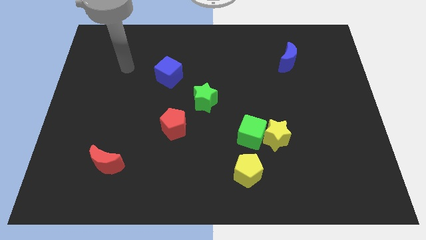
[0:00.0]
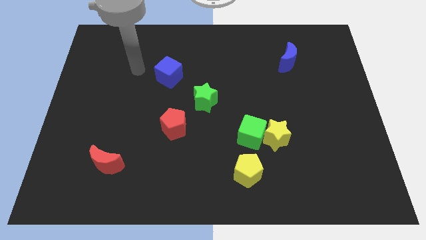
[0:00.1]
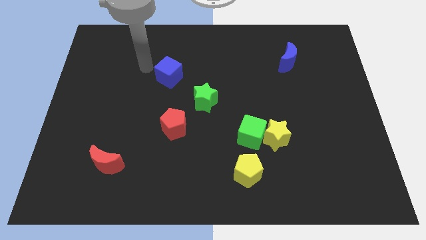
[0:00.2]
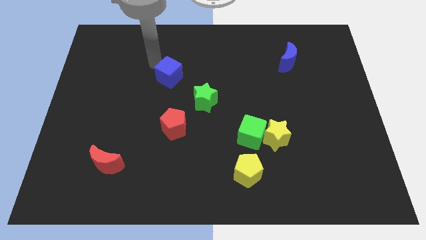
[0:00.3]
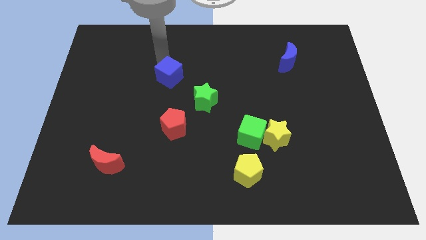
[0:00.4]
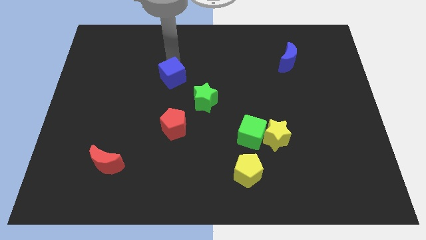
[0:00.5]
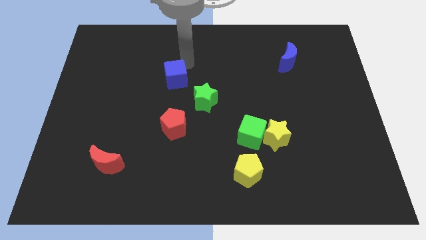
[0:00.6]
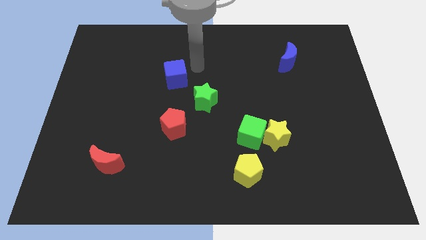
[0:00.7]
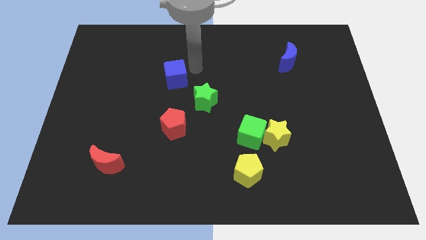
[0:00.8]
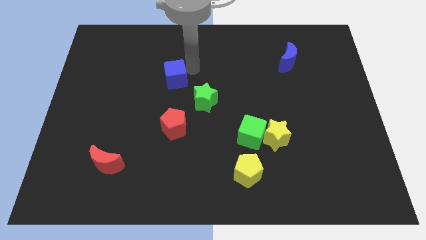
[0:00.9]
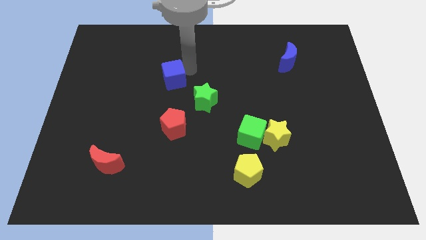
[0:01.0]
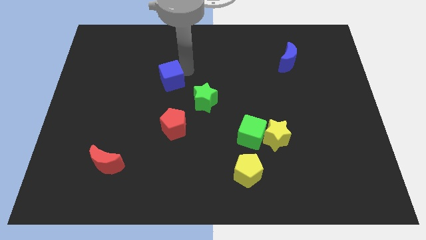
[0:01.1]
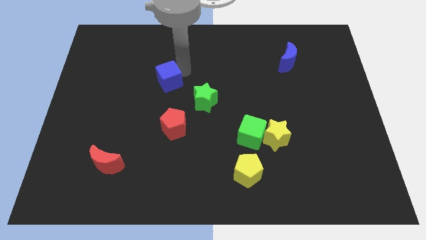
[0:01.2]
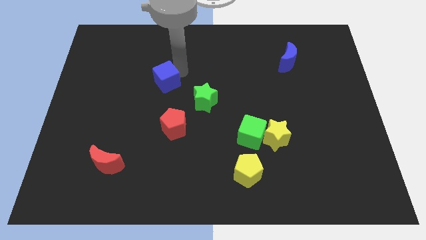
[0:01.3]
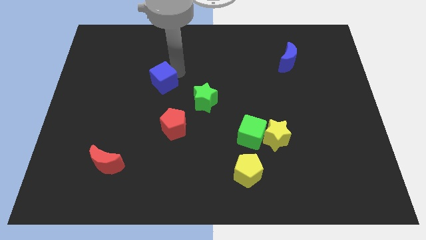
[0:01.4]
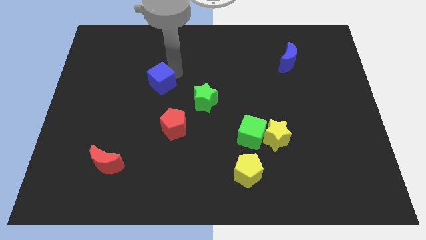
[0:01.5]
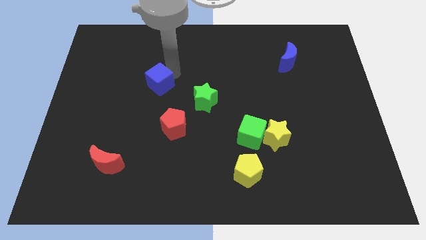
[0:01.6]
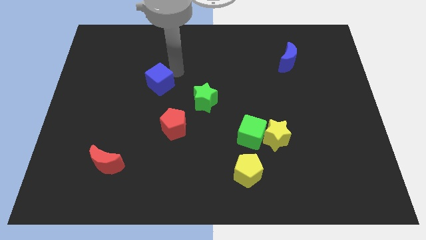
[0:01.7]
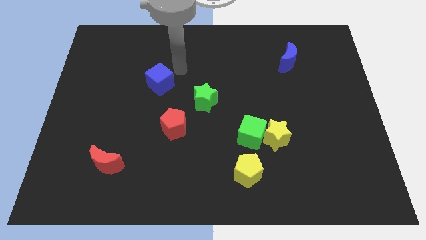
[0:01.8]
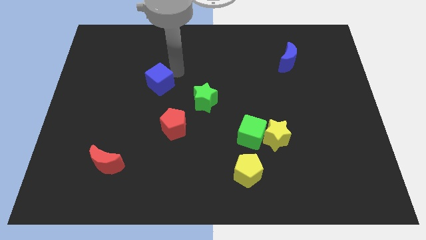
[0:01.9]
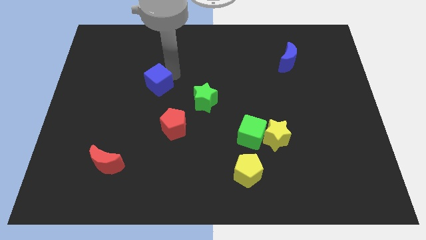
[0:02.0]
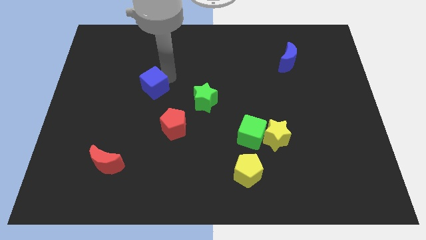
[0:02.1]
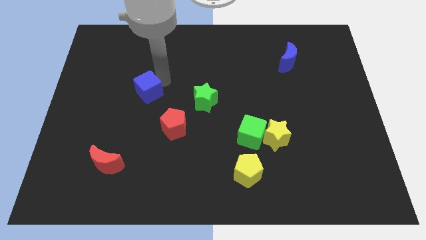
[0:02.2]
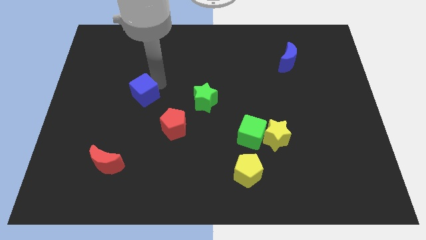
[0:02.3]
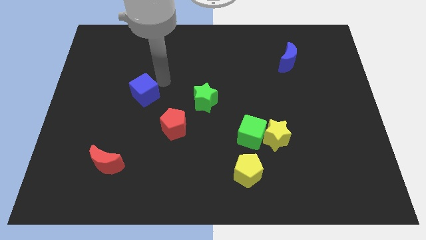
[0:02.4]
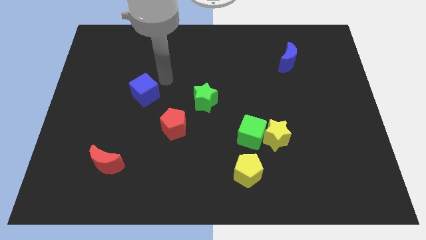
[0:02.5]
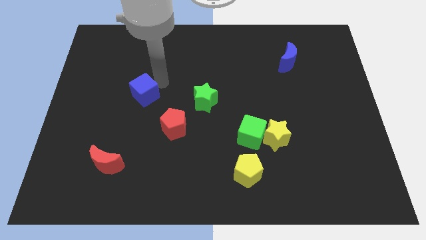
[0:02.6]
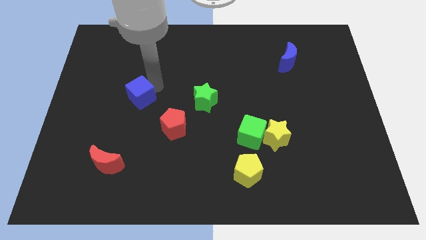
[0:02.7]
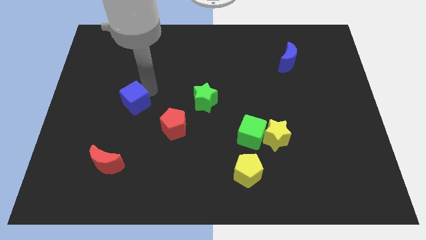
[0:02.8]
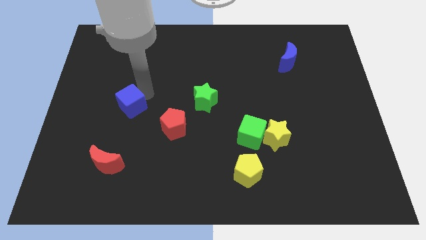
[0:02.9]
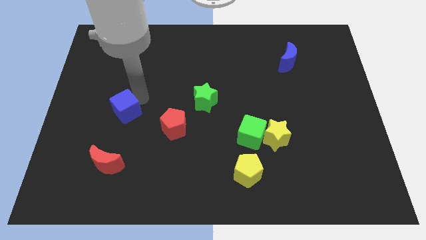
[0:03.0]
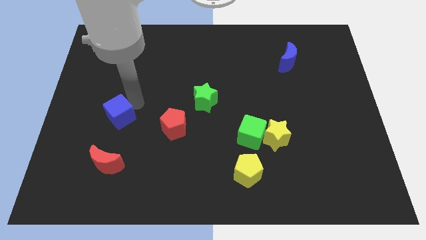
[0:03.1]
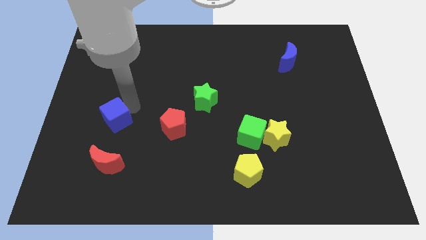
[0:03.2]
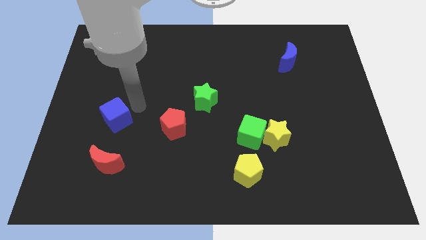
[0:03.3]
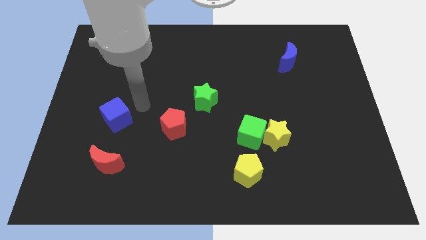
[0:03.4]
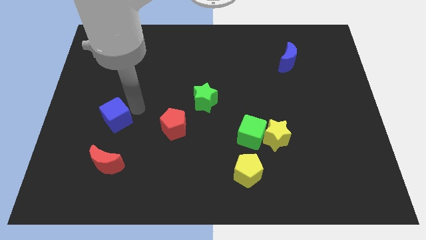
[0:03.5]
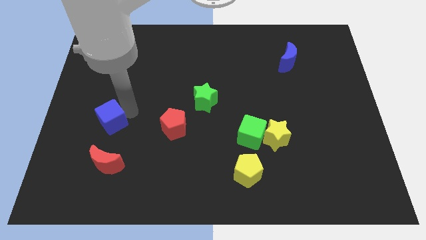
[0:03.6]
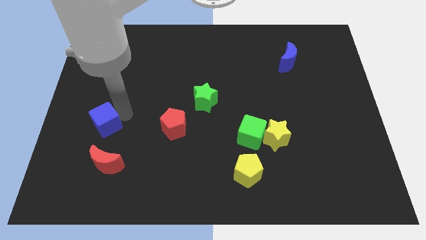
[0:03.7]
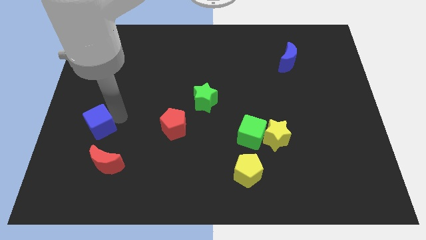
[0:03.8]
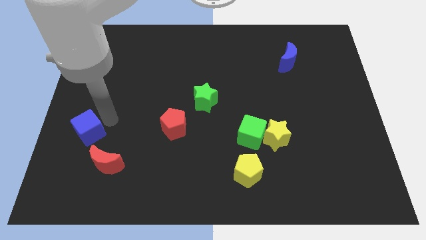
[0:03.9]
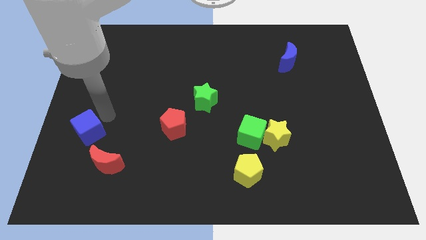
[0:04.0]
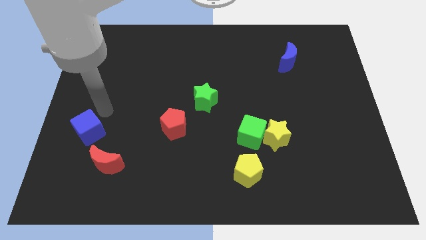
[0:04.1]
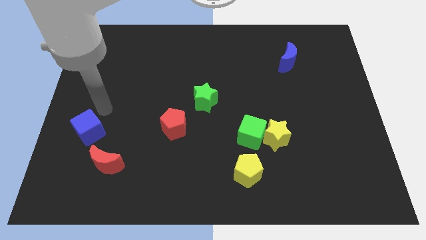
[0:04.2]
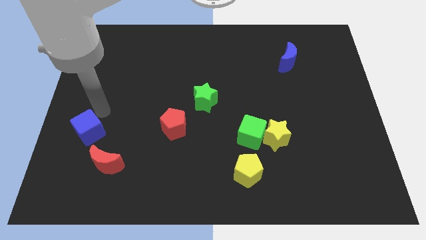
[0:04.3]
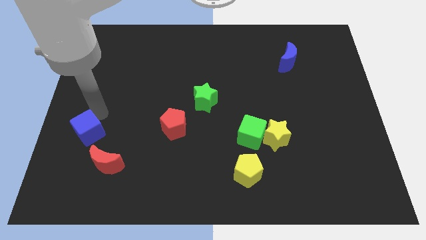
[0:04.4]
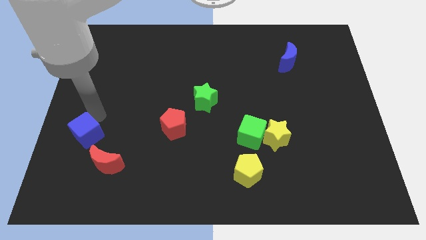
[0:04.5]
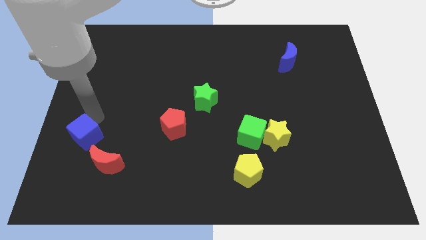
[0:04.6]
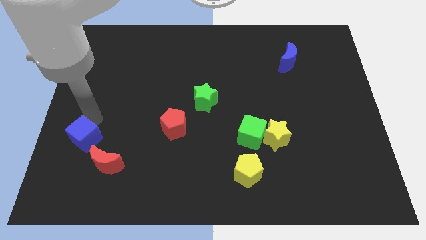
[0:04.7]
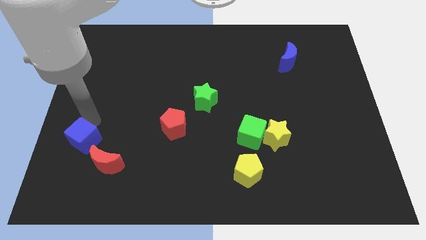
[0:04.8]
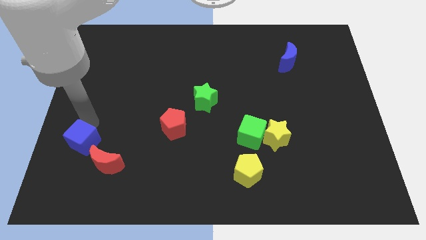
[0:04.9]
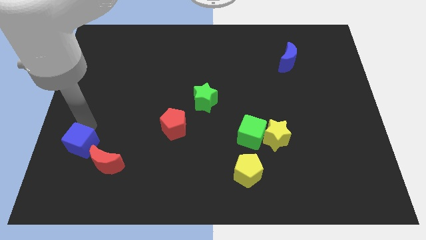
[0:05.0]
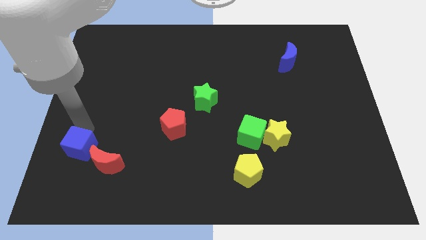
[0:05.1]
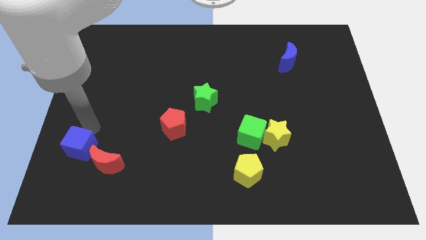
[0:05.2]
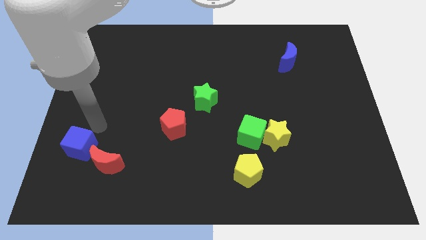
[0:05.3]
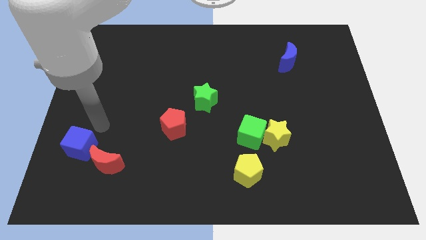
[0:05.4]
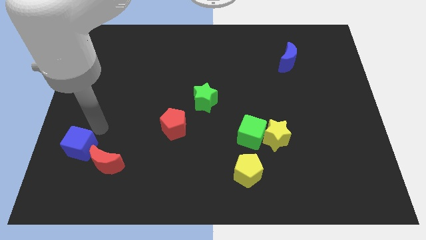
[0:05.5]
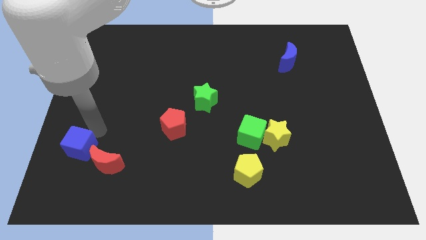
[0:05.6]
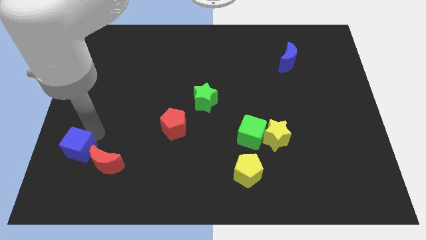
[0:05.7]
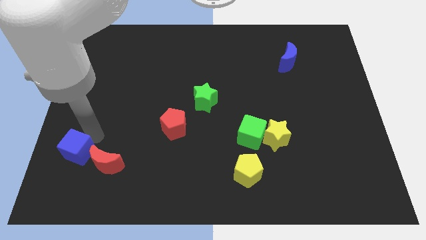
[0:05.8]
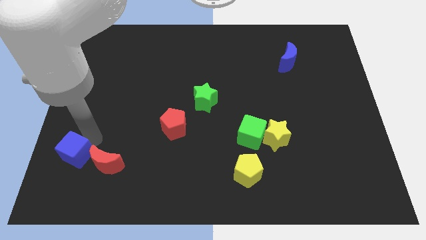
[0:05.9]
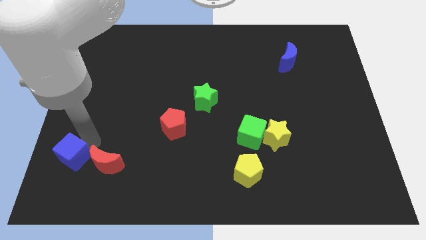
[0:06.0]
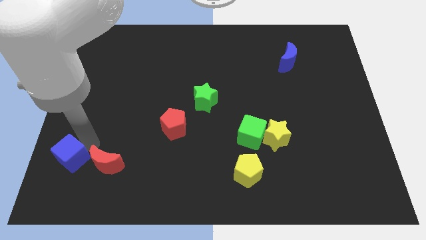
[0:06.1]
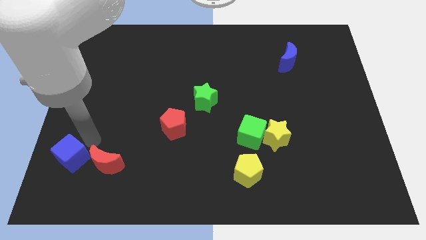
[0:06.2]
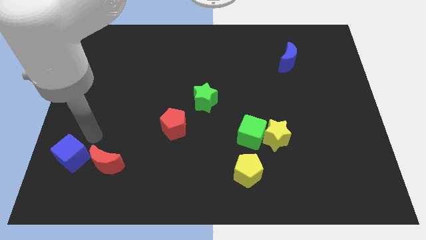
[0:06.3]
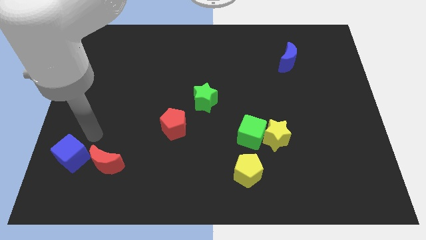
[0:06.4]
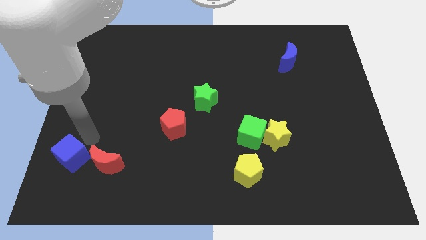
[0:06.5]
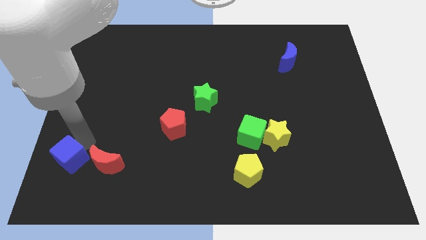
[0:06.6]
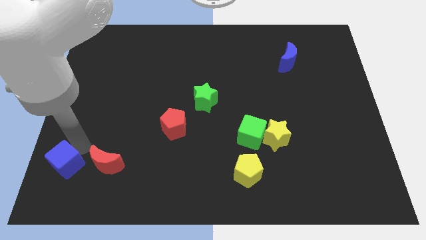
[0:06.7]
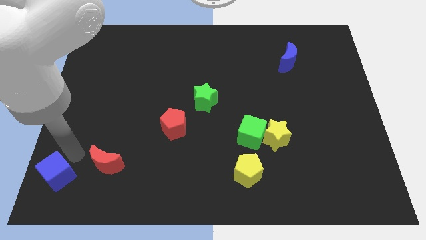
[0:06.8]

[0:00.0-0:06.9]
push the blue cube to the lower left corner
